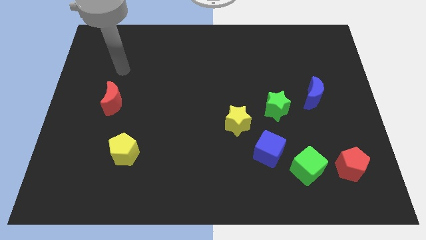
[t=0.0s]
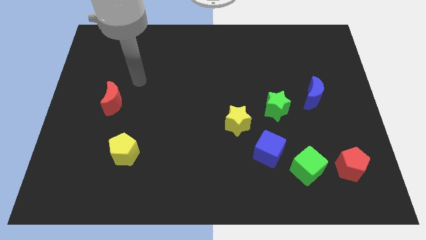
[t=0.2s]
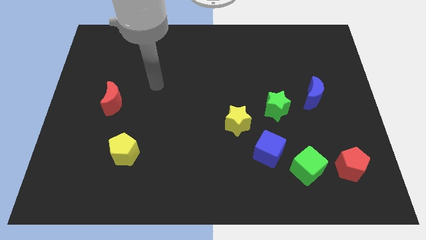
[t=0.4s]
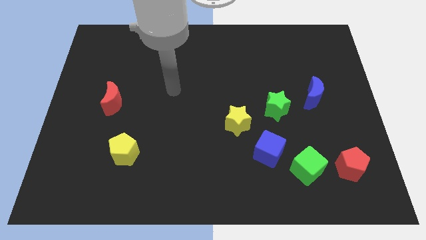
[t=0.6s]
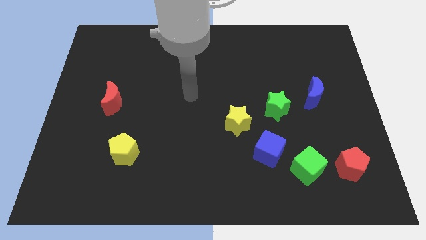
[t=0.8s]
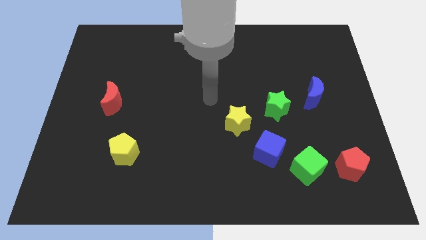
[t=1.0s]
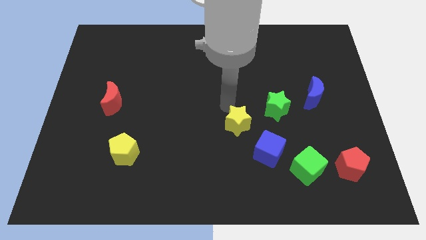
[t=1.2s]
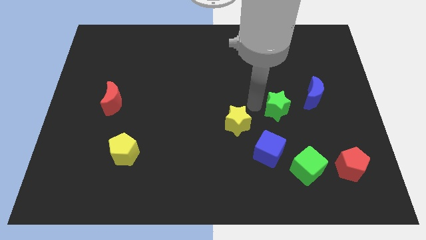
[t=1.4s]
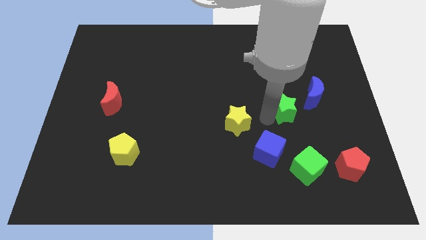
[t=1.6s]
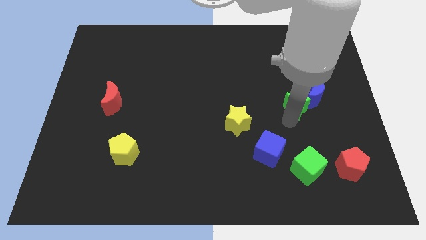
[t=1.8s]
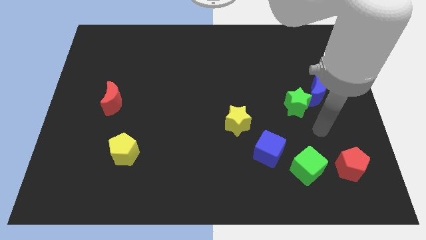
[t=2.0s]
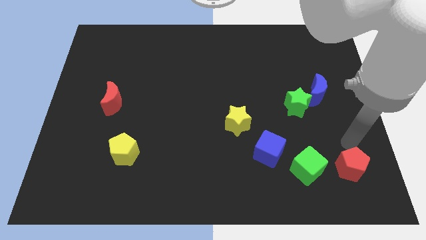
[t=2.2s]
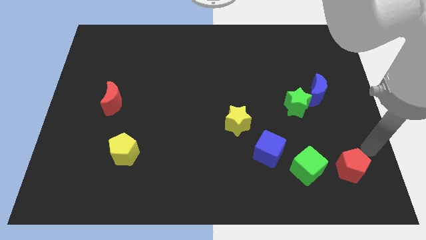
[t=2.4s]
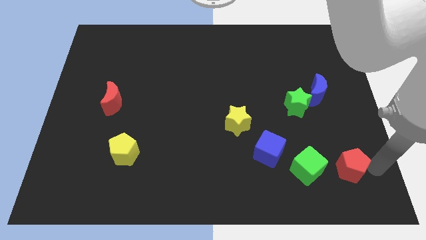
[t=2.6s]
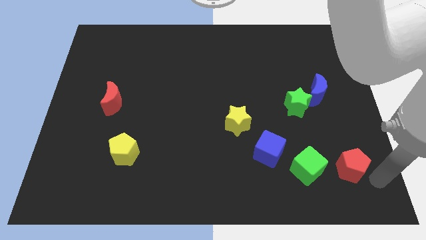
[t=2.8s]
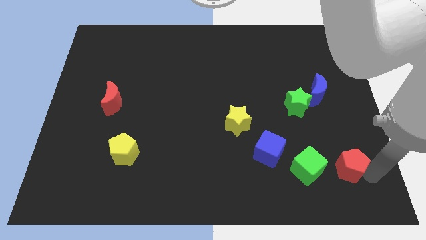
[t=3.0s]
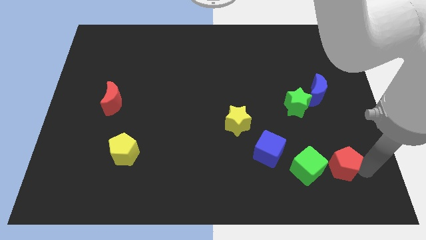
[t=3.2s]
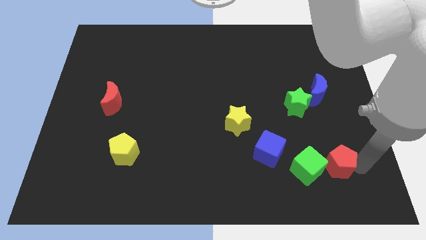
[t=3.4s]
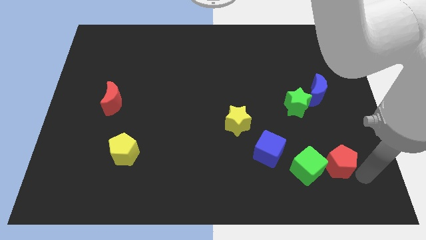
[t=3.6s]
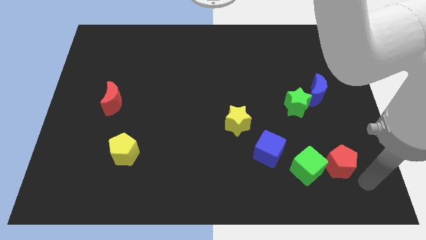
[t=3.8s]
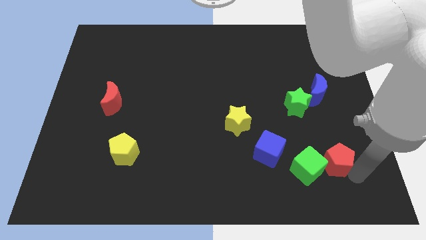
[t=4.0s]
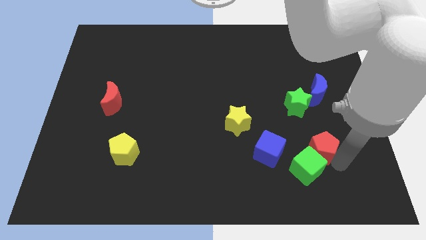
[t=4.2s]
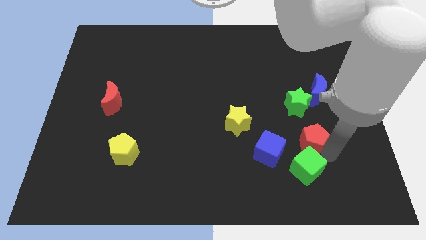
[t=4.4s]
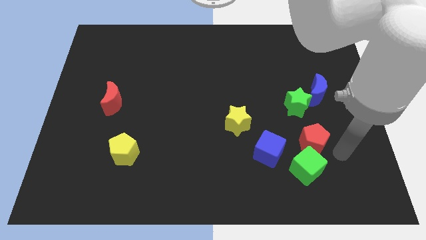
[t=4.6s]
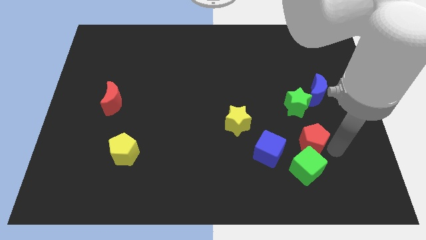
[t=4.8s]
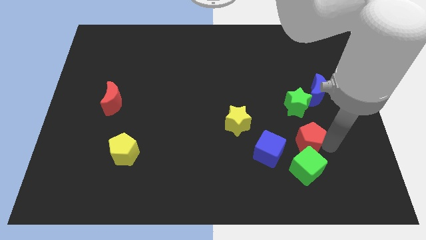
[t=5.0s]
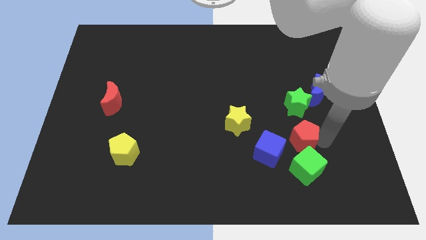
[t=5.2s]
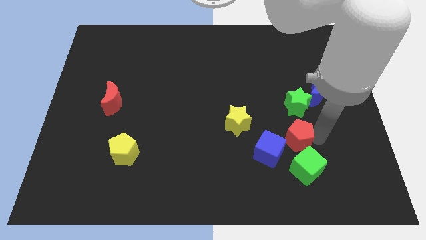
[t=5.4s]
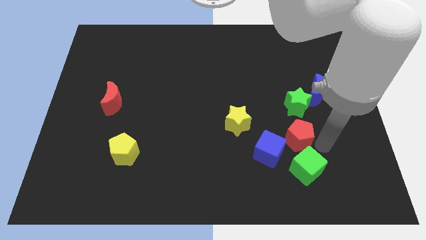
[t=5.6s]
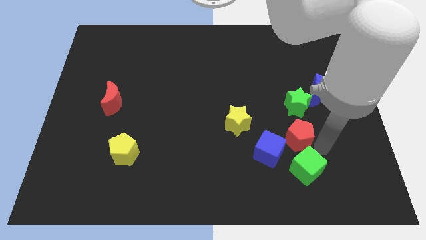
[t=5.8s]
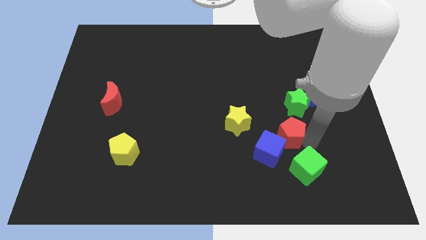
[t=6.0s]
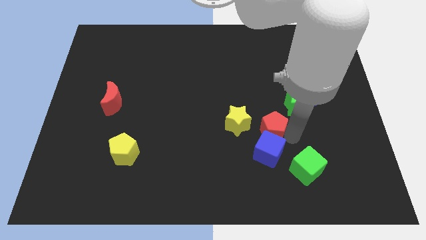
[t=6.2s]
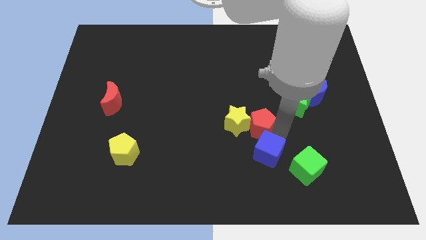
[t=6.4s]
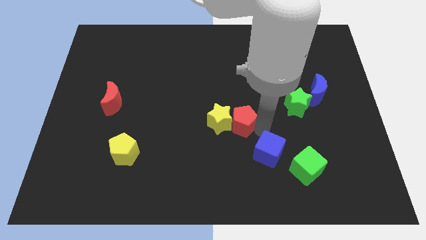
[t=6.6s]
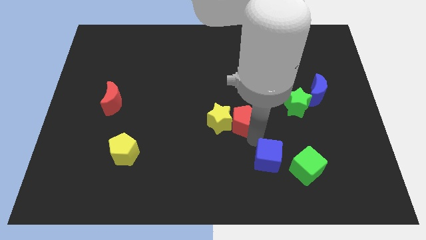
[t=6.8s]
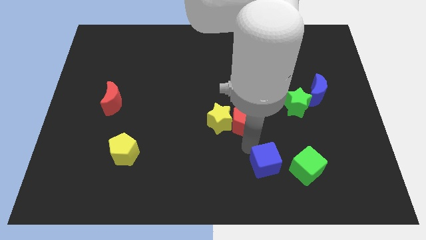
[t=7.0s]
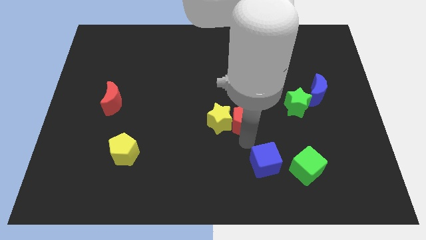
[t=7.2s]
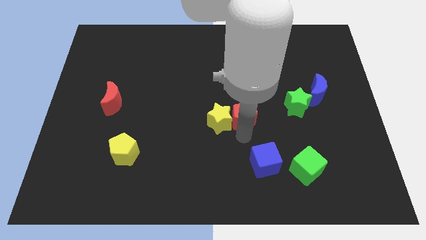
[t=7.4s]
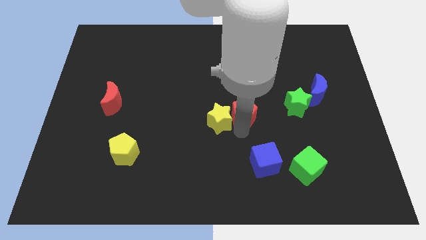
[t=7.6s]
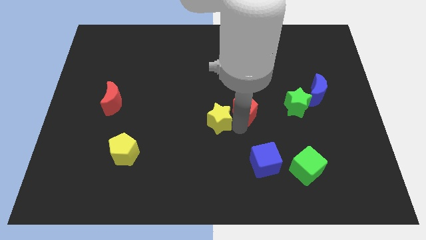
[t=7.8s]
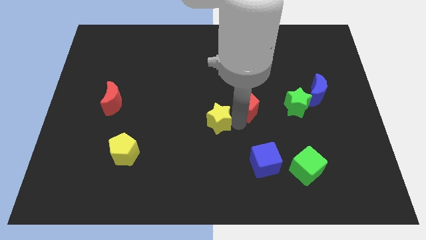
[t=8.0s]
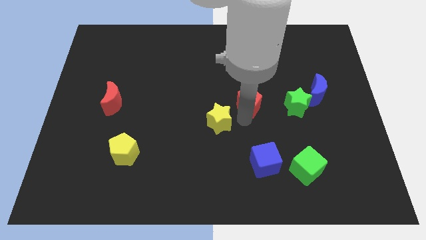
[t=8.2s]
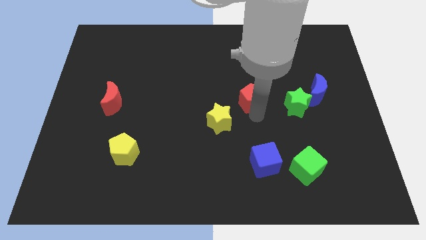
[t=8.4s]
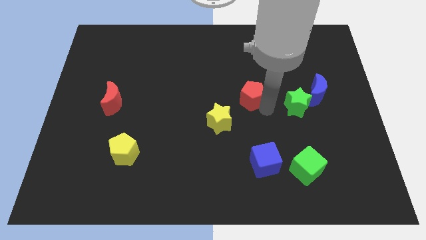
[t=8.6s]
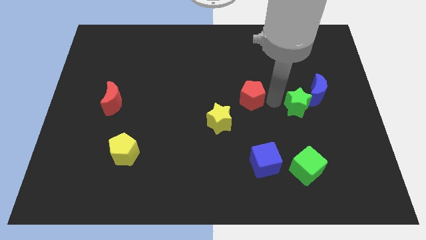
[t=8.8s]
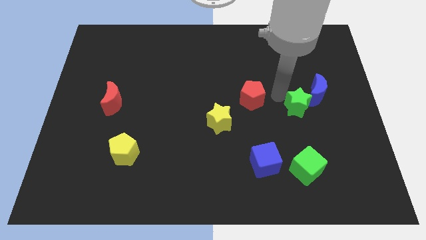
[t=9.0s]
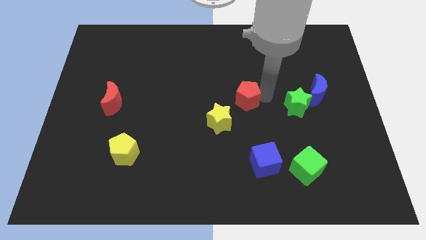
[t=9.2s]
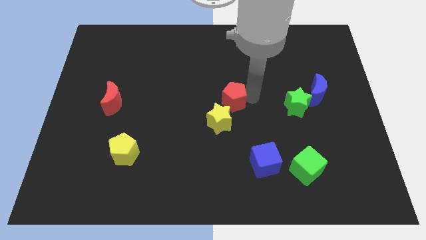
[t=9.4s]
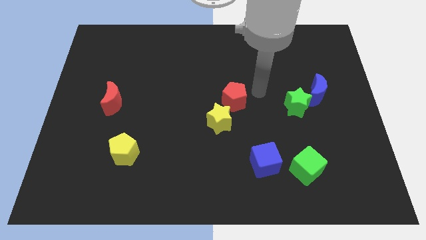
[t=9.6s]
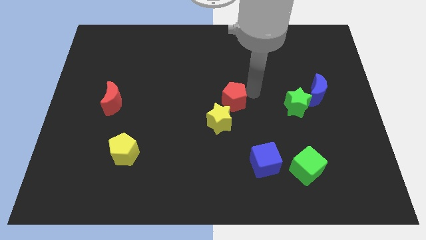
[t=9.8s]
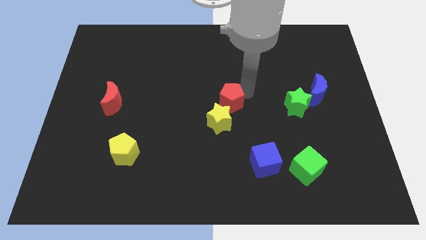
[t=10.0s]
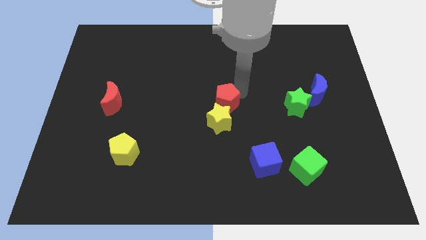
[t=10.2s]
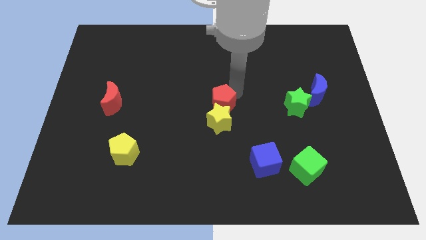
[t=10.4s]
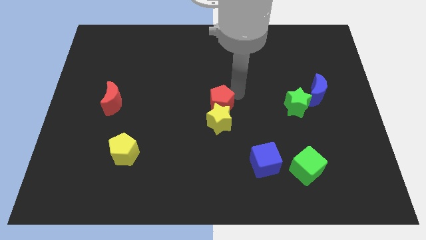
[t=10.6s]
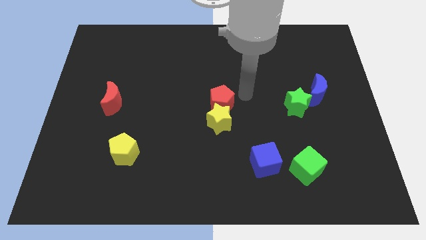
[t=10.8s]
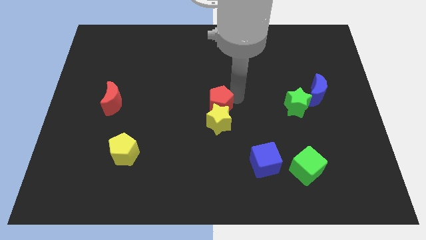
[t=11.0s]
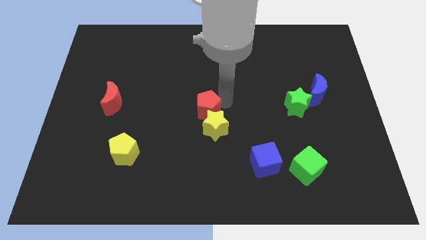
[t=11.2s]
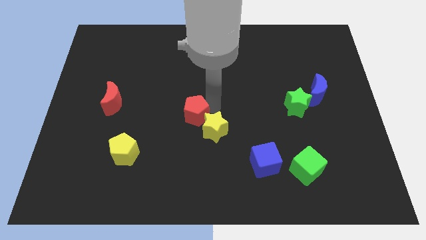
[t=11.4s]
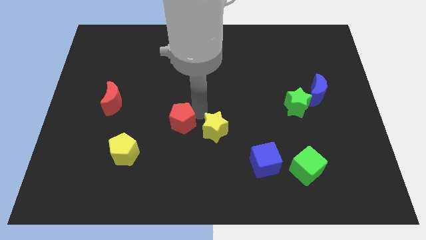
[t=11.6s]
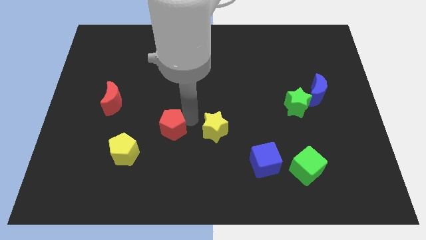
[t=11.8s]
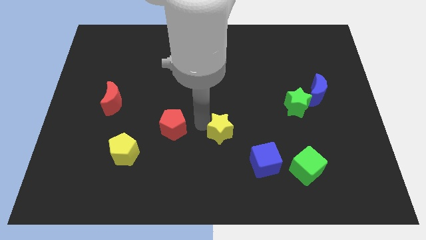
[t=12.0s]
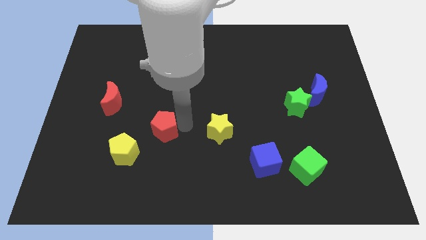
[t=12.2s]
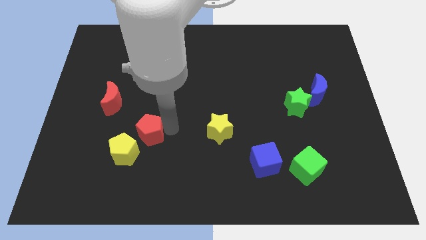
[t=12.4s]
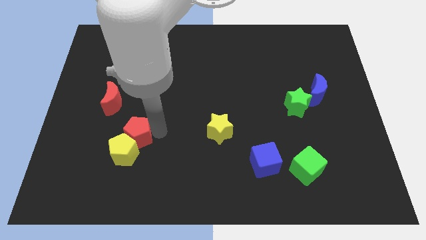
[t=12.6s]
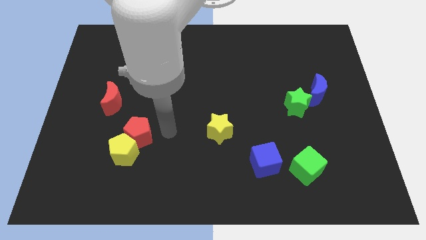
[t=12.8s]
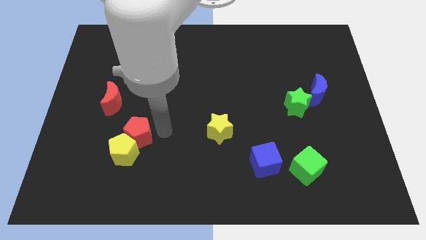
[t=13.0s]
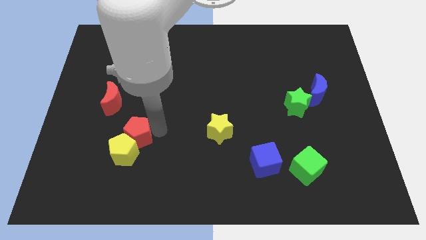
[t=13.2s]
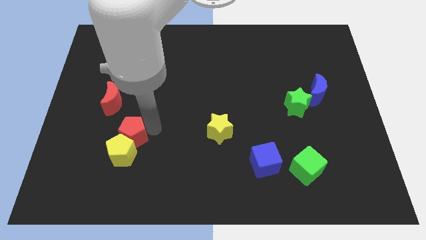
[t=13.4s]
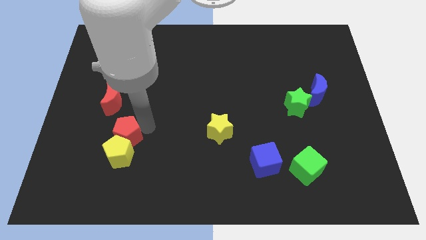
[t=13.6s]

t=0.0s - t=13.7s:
move the red pentagon to the bottom of the red moon
